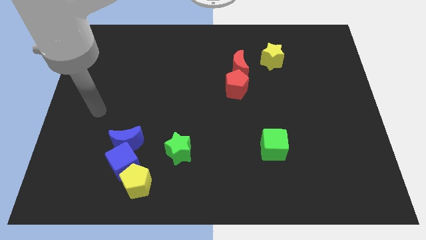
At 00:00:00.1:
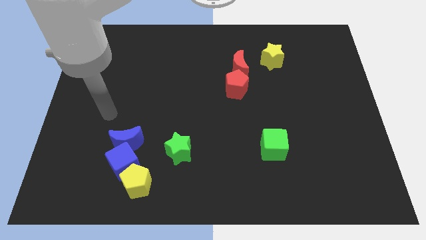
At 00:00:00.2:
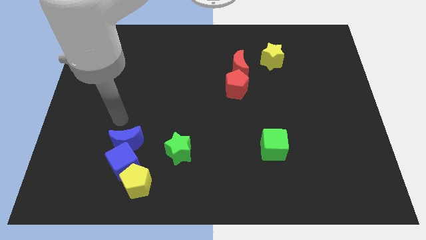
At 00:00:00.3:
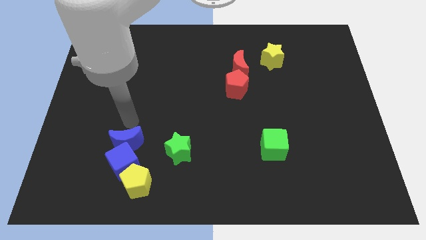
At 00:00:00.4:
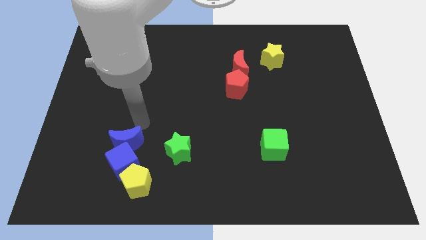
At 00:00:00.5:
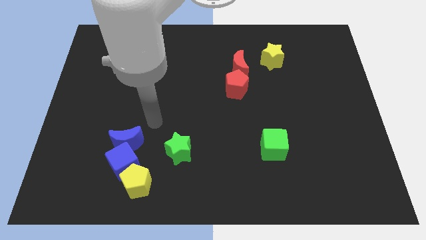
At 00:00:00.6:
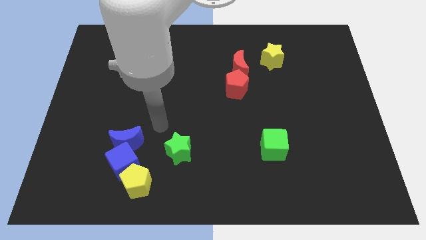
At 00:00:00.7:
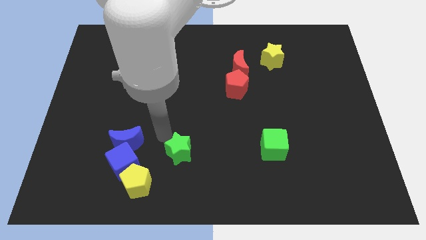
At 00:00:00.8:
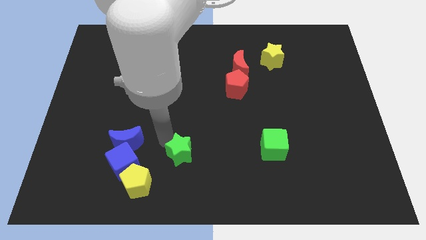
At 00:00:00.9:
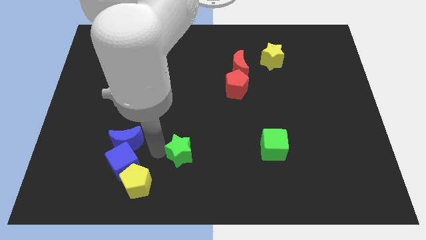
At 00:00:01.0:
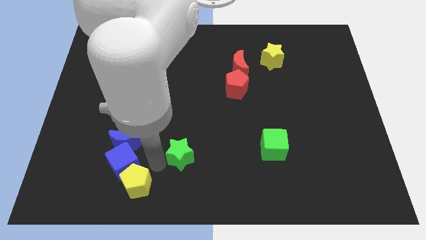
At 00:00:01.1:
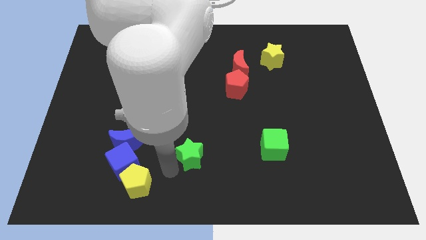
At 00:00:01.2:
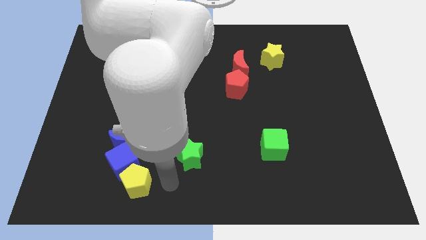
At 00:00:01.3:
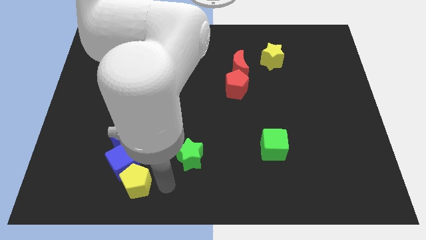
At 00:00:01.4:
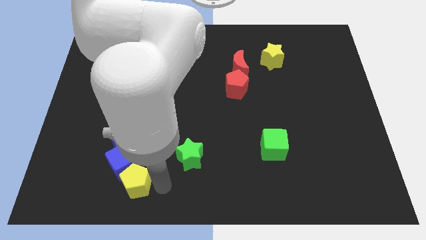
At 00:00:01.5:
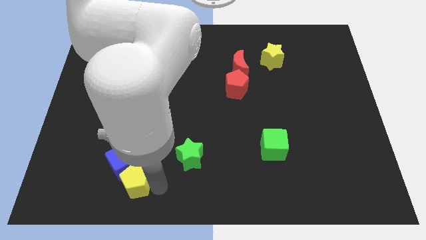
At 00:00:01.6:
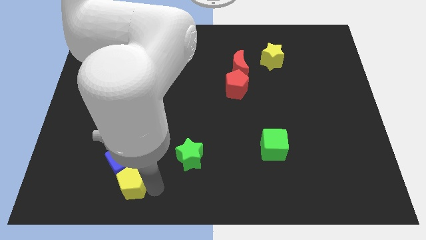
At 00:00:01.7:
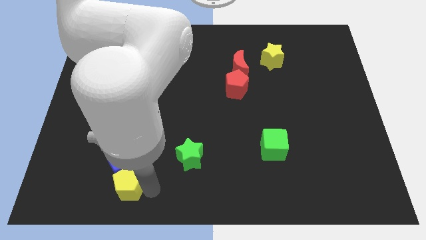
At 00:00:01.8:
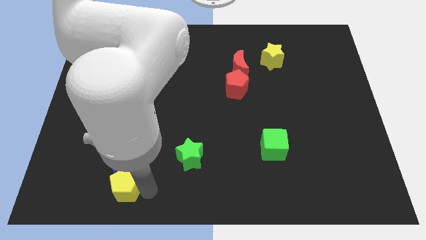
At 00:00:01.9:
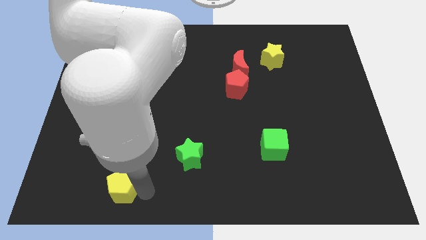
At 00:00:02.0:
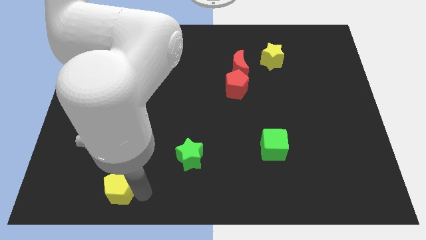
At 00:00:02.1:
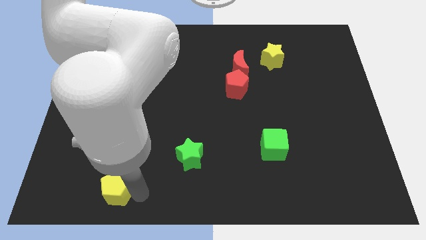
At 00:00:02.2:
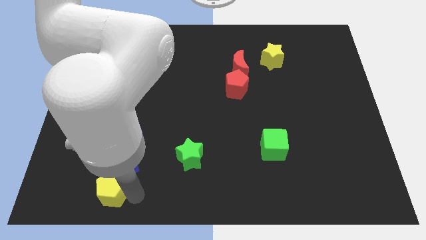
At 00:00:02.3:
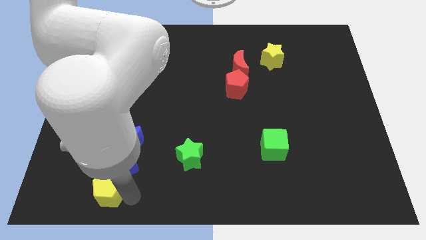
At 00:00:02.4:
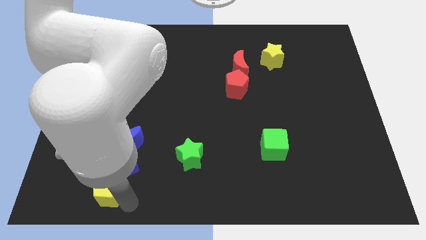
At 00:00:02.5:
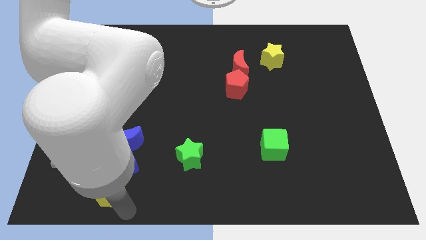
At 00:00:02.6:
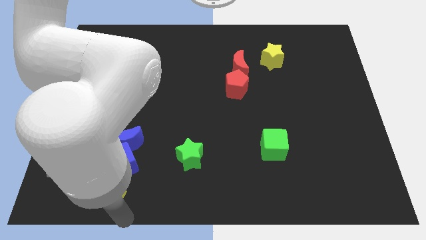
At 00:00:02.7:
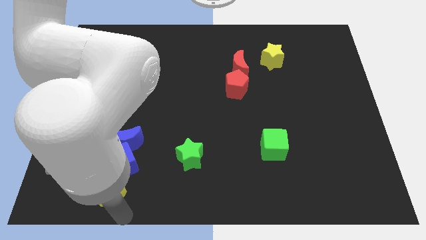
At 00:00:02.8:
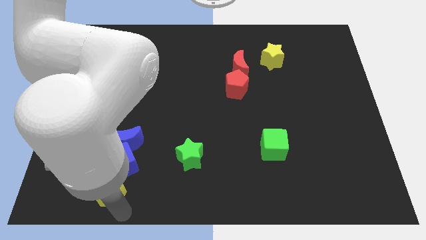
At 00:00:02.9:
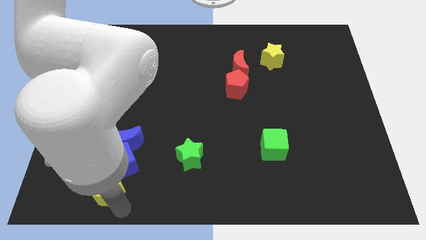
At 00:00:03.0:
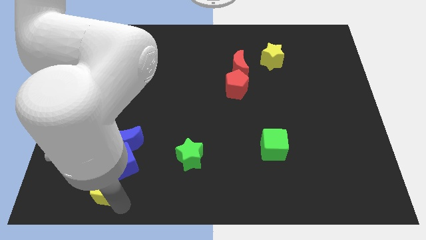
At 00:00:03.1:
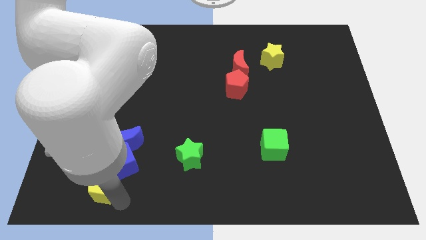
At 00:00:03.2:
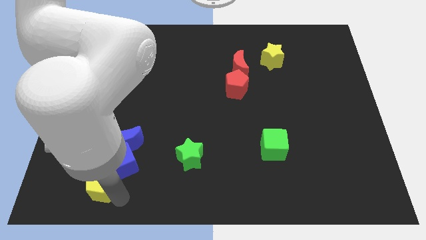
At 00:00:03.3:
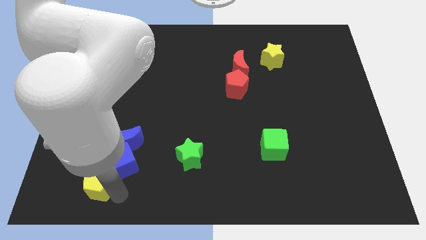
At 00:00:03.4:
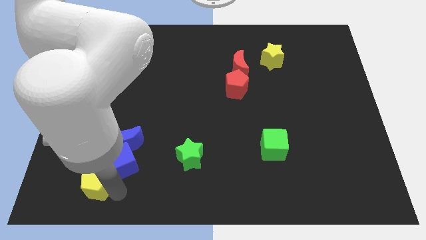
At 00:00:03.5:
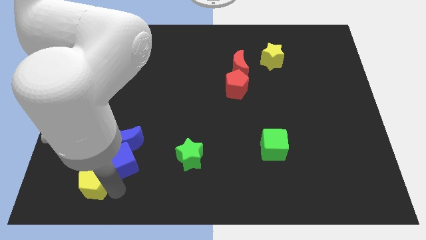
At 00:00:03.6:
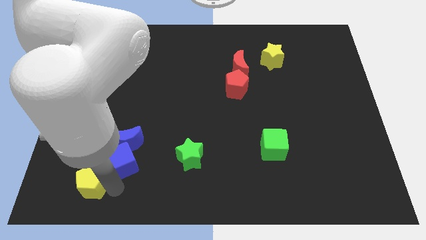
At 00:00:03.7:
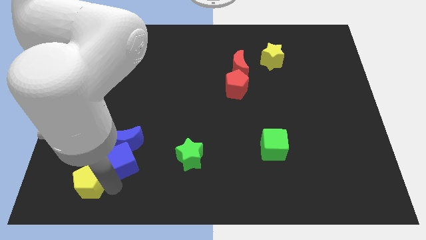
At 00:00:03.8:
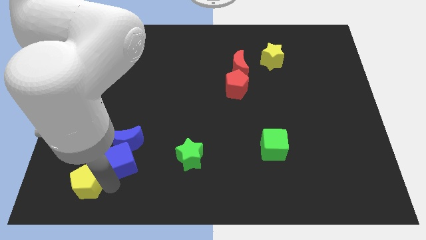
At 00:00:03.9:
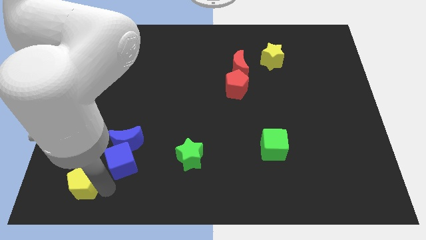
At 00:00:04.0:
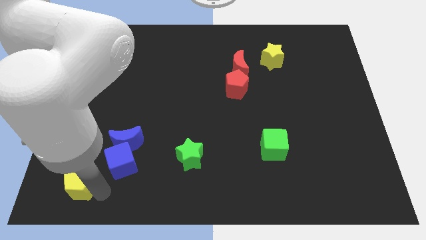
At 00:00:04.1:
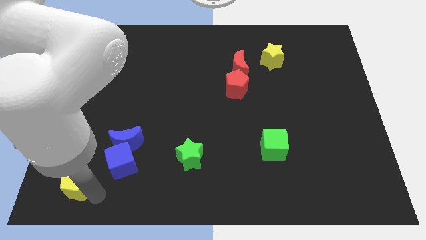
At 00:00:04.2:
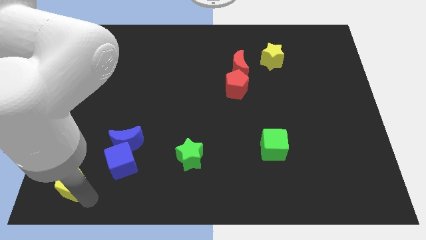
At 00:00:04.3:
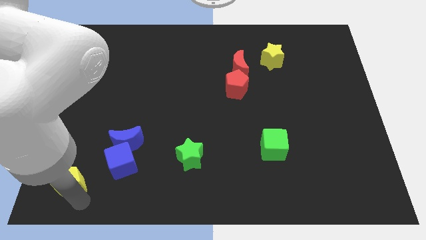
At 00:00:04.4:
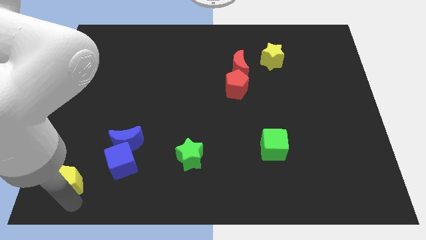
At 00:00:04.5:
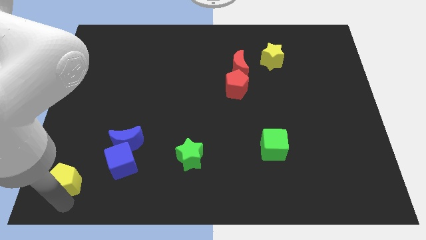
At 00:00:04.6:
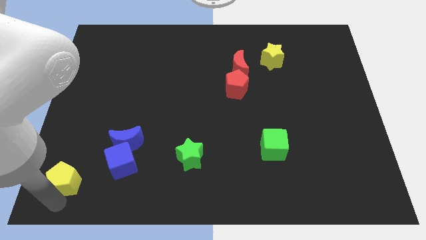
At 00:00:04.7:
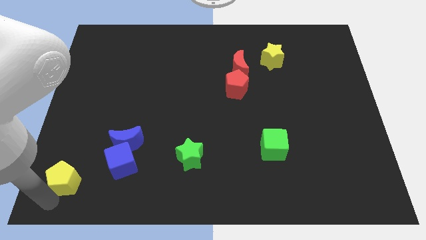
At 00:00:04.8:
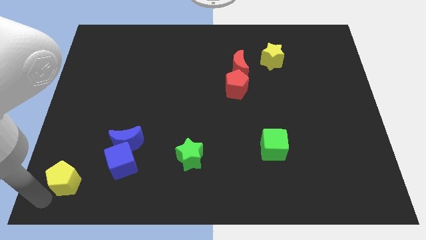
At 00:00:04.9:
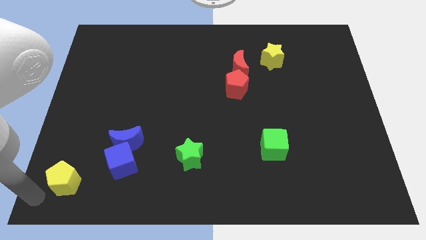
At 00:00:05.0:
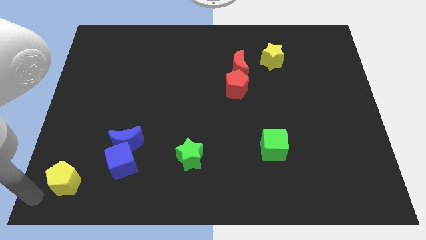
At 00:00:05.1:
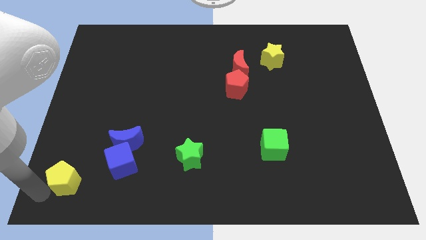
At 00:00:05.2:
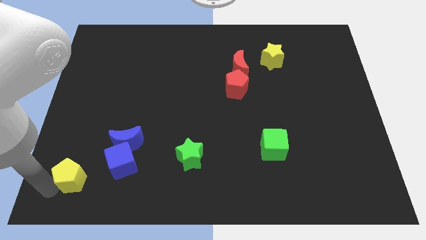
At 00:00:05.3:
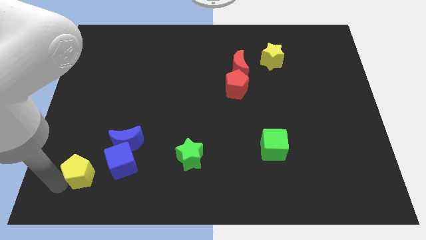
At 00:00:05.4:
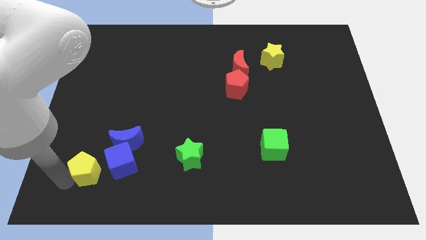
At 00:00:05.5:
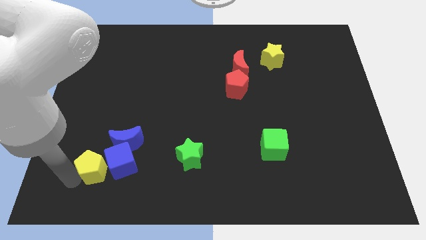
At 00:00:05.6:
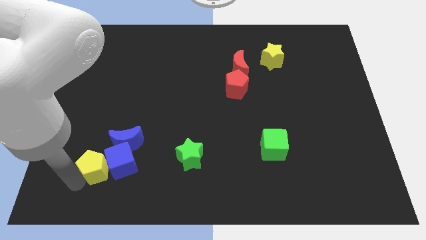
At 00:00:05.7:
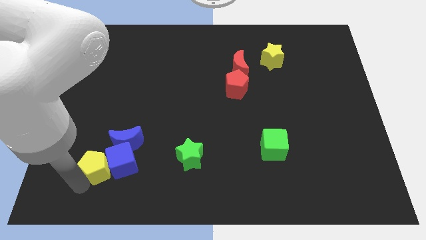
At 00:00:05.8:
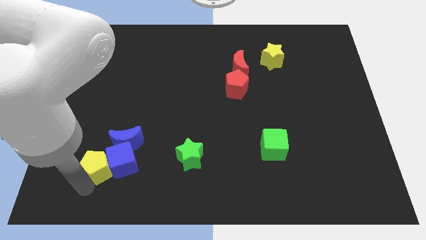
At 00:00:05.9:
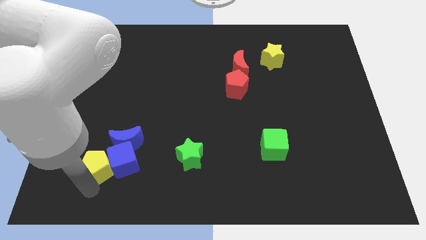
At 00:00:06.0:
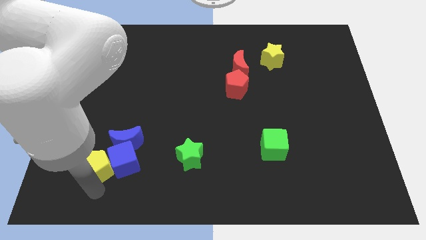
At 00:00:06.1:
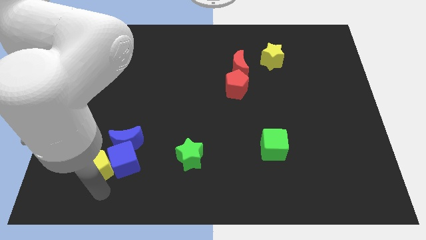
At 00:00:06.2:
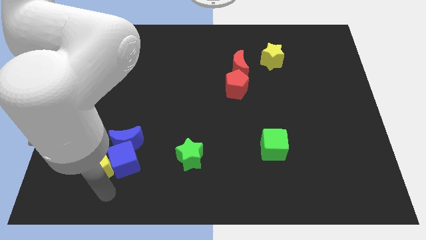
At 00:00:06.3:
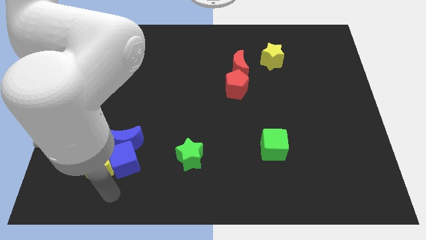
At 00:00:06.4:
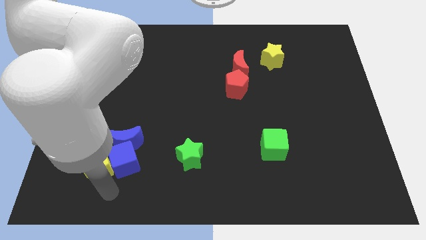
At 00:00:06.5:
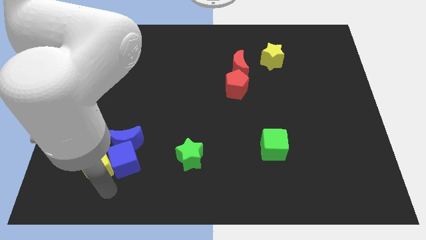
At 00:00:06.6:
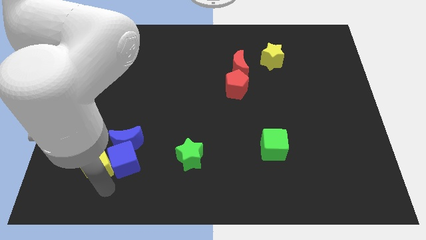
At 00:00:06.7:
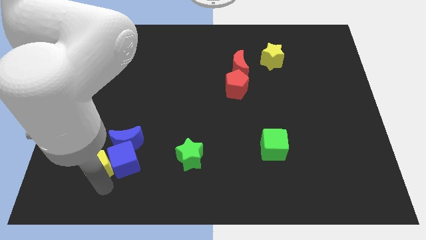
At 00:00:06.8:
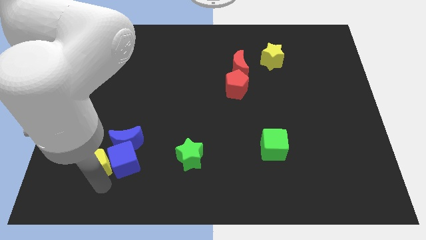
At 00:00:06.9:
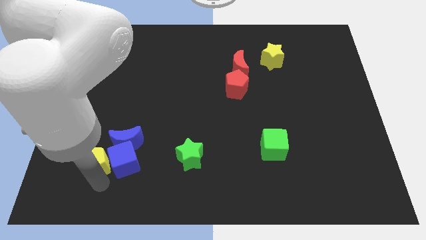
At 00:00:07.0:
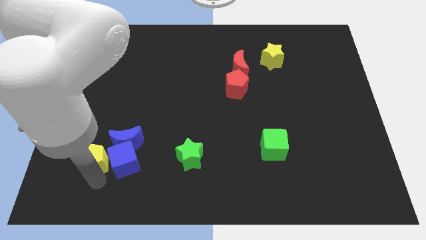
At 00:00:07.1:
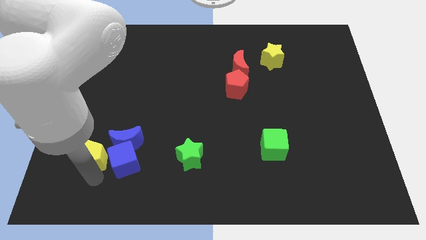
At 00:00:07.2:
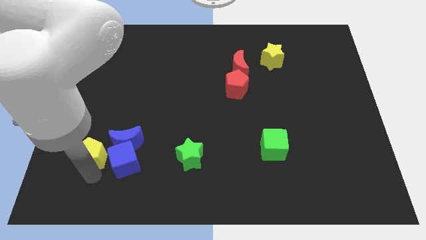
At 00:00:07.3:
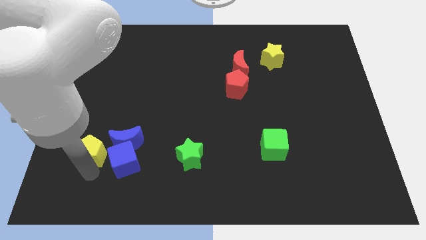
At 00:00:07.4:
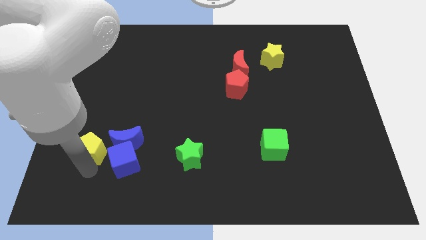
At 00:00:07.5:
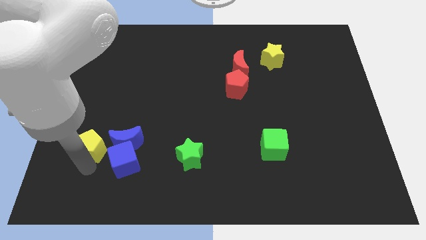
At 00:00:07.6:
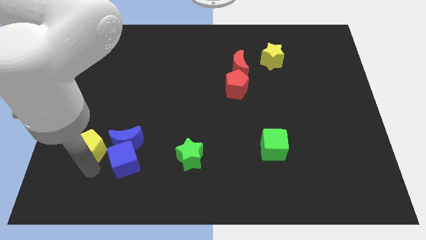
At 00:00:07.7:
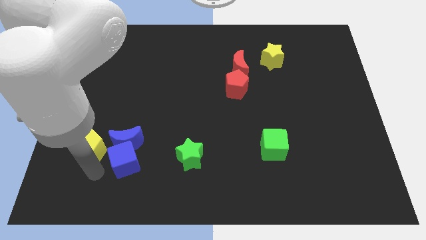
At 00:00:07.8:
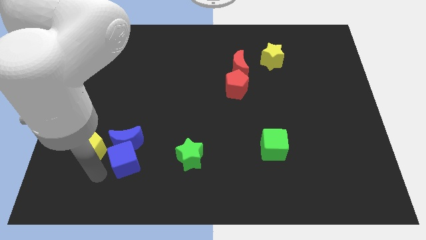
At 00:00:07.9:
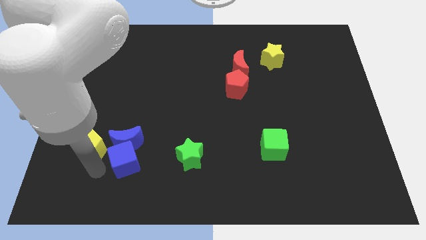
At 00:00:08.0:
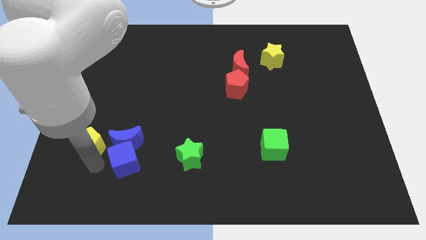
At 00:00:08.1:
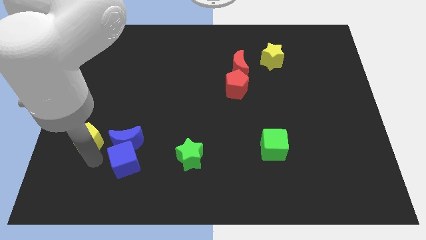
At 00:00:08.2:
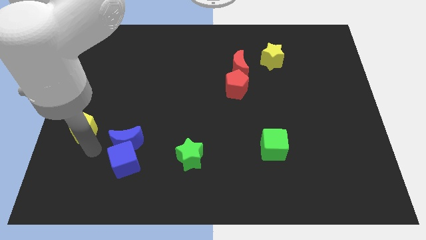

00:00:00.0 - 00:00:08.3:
slide the yellow pentagon to the left side of the board
